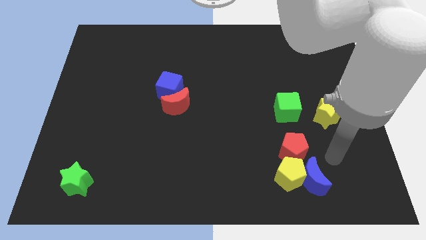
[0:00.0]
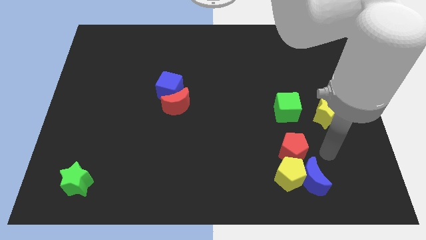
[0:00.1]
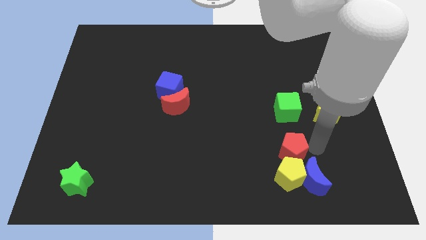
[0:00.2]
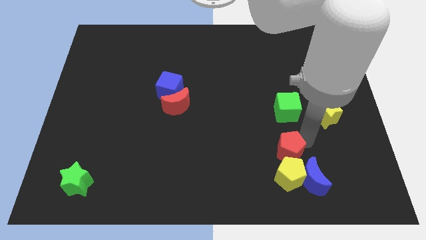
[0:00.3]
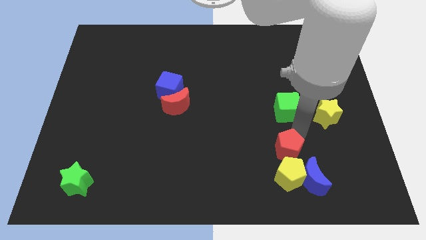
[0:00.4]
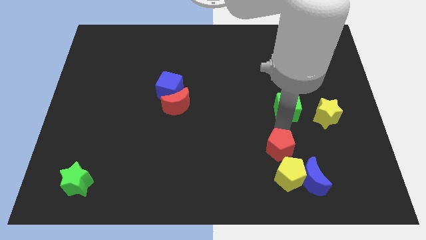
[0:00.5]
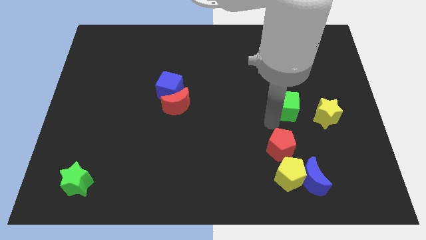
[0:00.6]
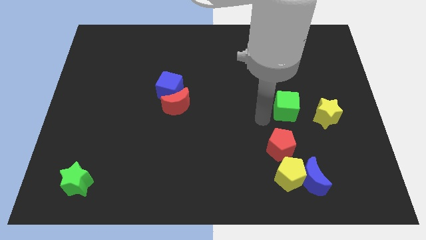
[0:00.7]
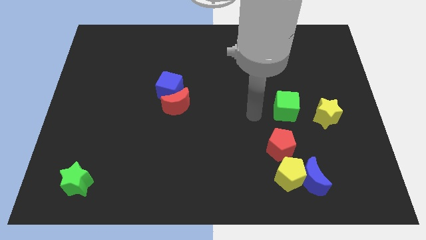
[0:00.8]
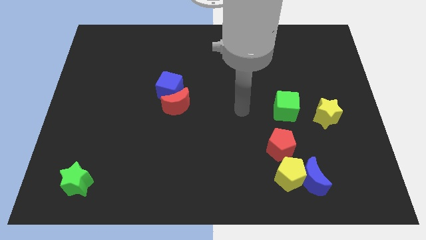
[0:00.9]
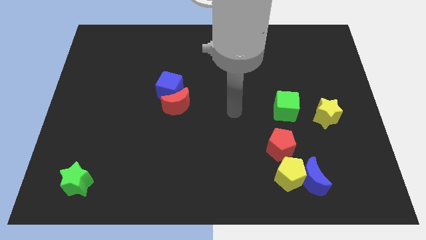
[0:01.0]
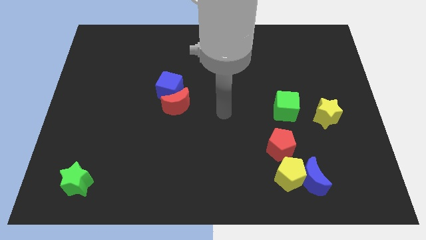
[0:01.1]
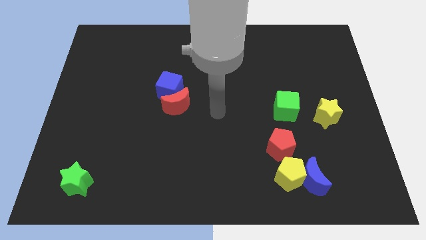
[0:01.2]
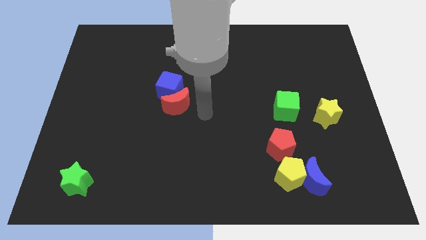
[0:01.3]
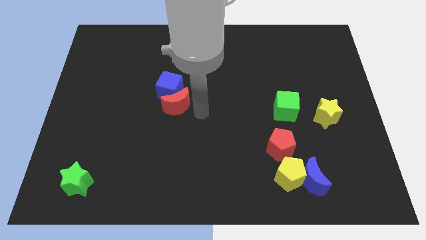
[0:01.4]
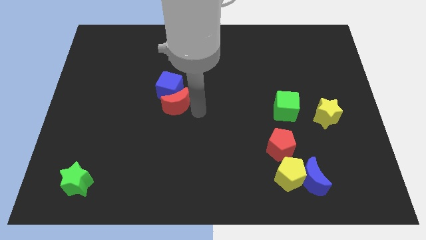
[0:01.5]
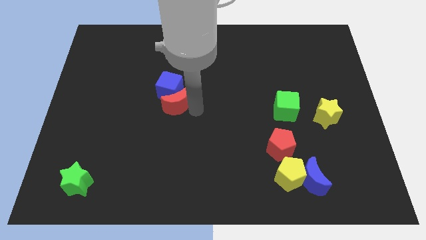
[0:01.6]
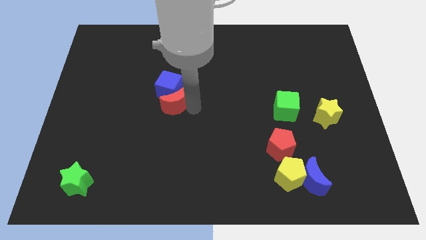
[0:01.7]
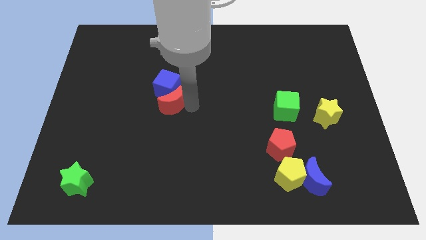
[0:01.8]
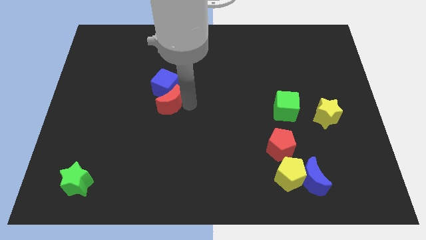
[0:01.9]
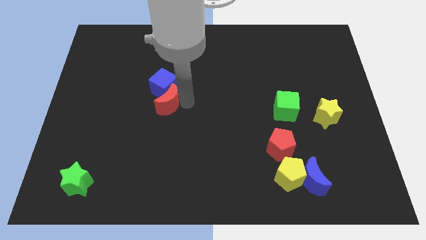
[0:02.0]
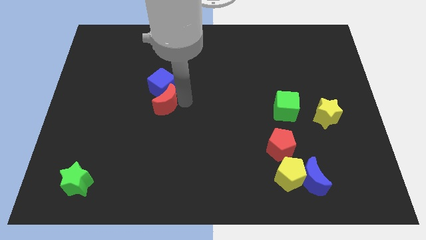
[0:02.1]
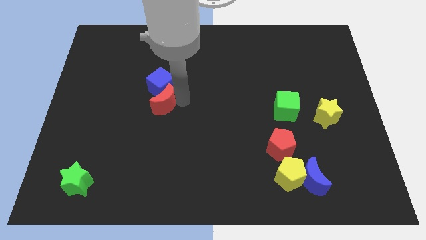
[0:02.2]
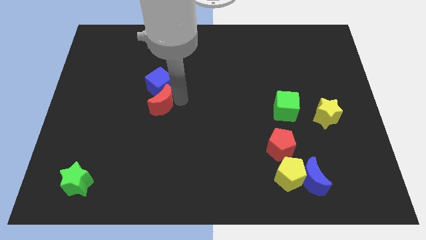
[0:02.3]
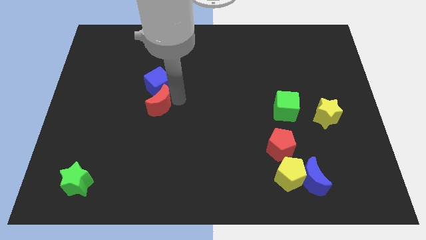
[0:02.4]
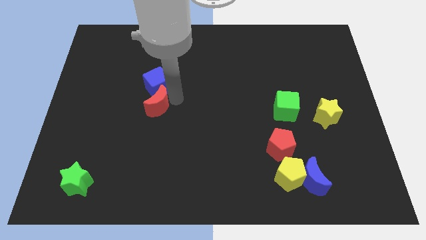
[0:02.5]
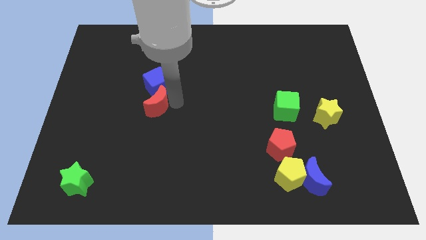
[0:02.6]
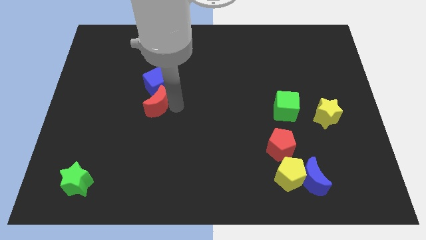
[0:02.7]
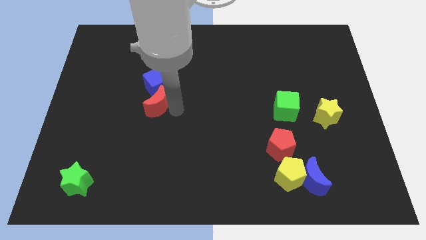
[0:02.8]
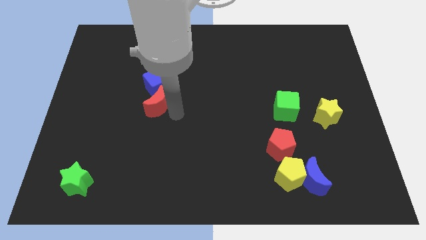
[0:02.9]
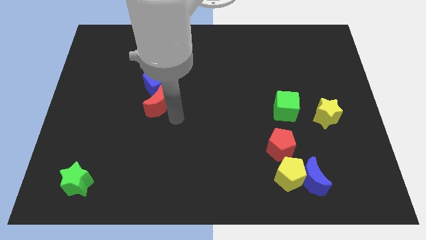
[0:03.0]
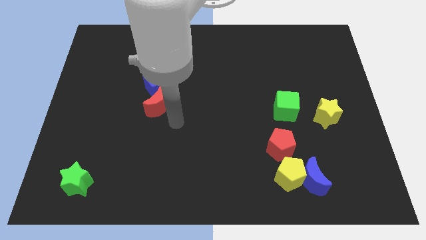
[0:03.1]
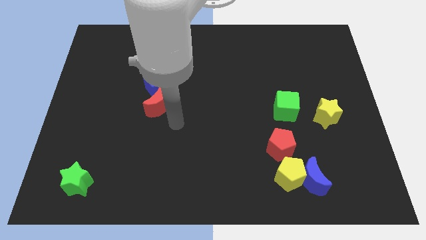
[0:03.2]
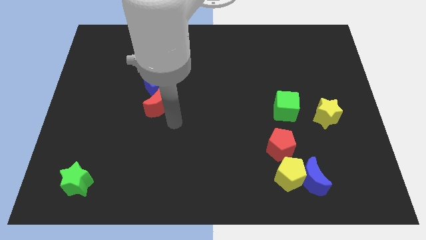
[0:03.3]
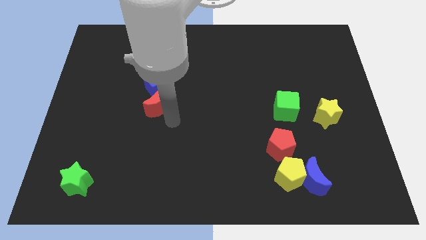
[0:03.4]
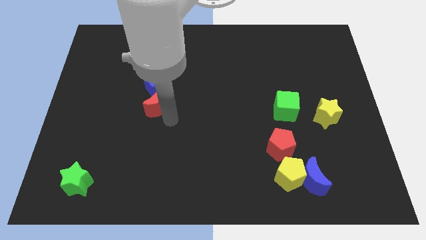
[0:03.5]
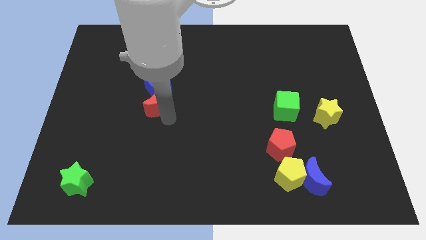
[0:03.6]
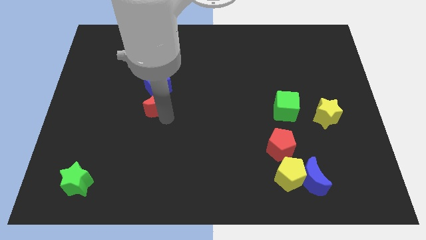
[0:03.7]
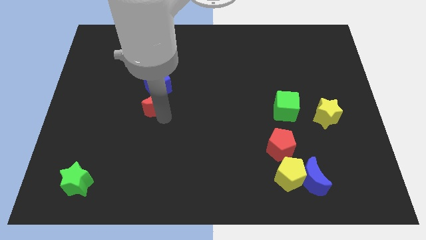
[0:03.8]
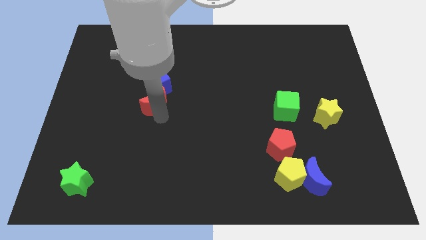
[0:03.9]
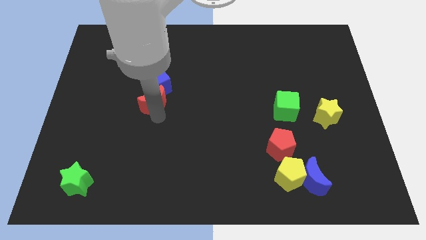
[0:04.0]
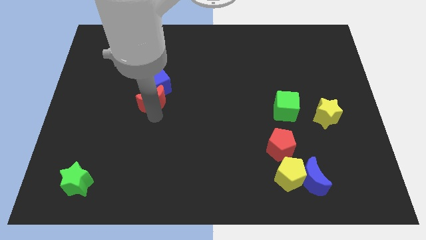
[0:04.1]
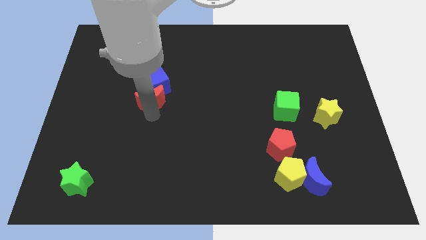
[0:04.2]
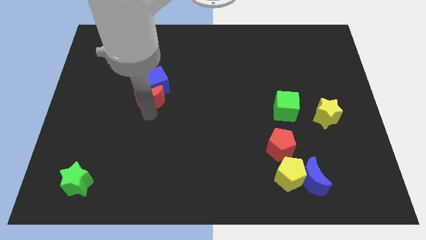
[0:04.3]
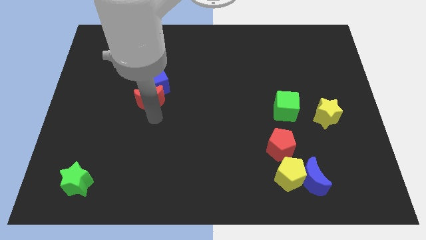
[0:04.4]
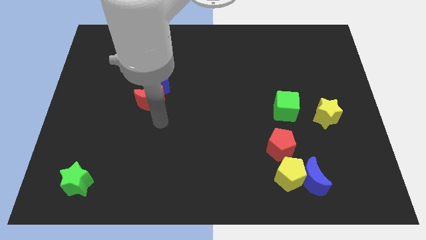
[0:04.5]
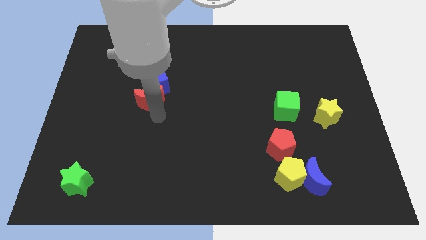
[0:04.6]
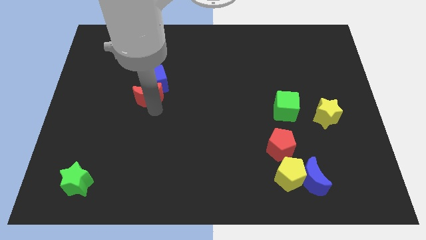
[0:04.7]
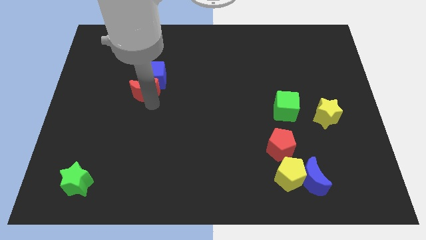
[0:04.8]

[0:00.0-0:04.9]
slide the red moon a little bit up and left diagonally

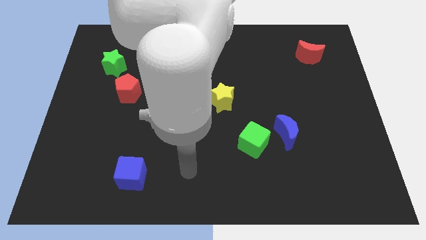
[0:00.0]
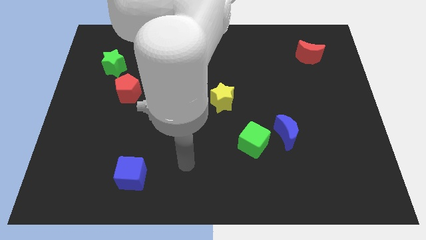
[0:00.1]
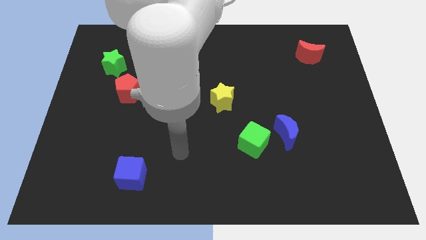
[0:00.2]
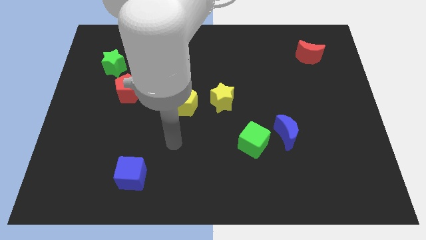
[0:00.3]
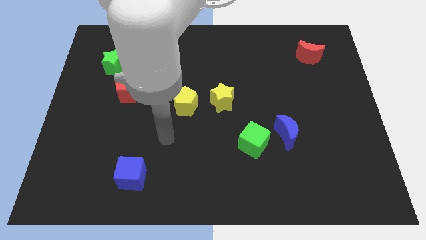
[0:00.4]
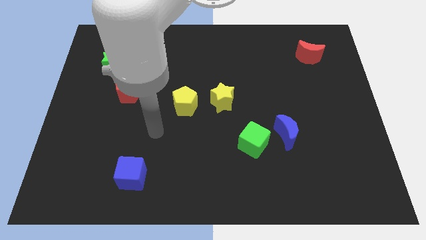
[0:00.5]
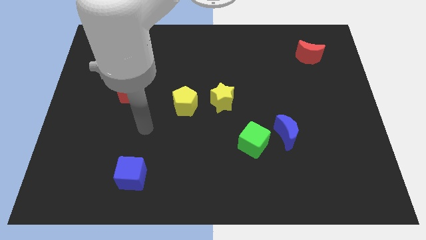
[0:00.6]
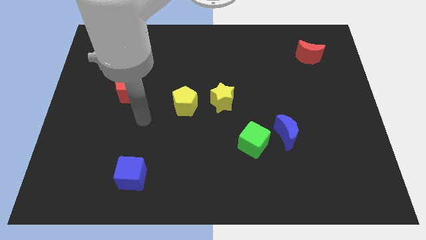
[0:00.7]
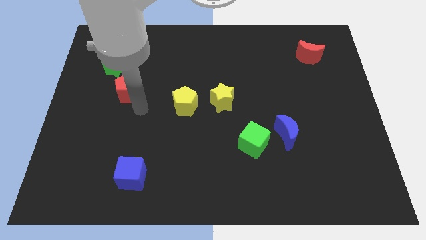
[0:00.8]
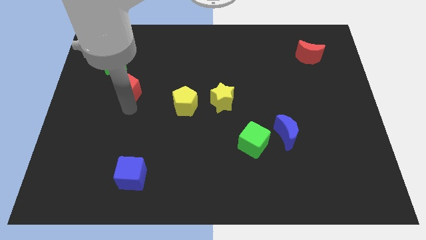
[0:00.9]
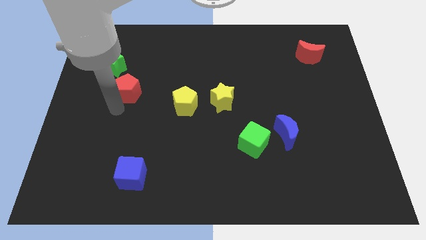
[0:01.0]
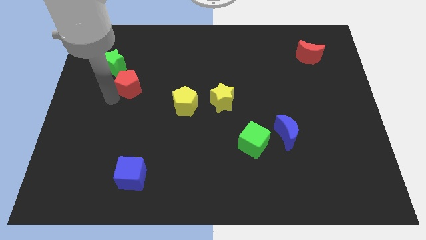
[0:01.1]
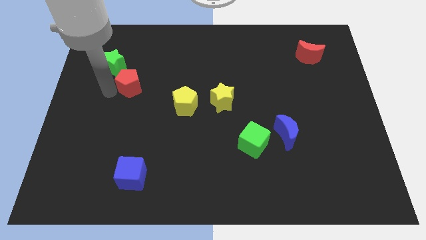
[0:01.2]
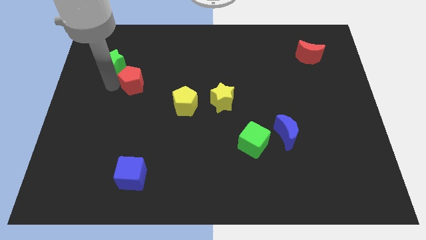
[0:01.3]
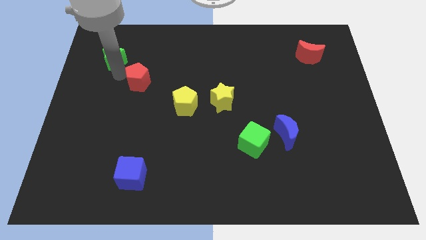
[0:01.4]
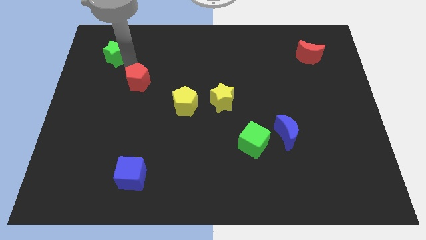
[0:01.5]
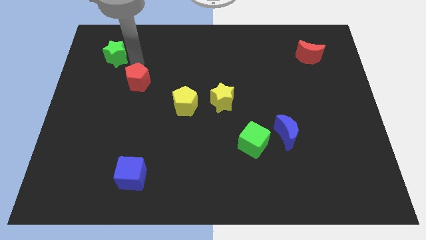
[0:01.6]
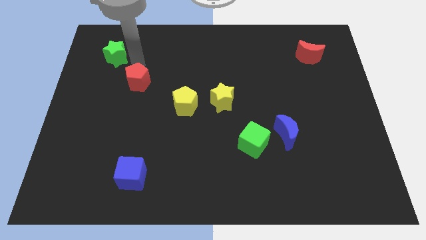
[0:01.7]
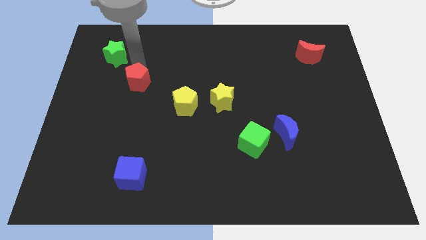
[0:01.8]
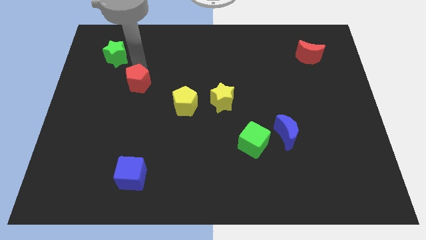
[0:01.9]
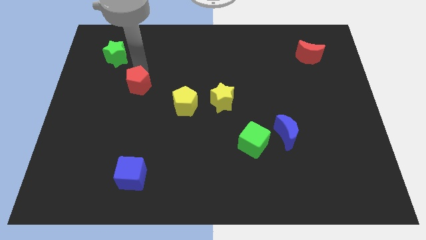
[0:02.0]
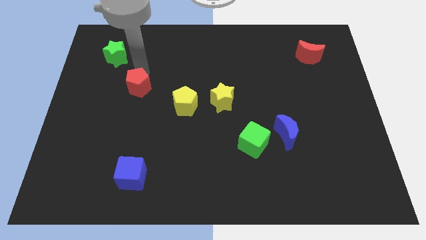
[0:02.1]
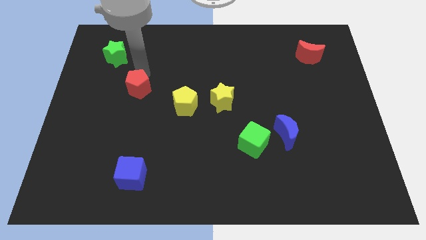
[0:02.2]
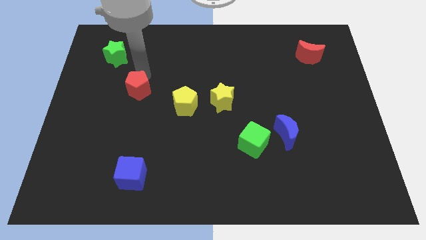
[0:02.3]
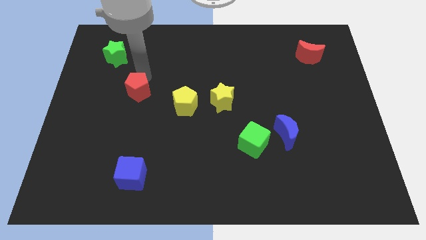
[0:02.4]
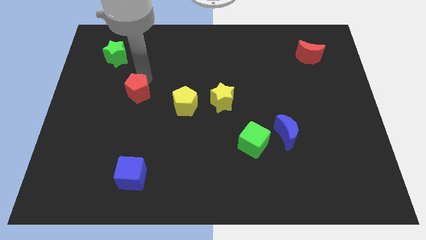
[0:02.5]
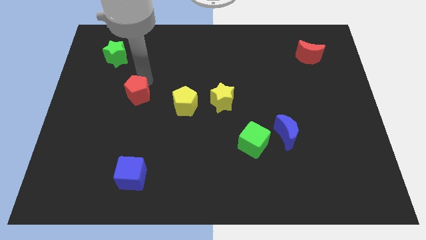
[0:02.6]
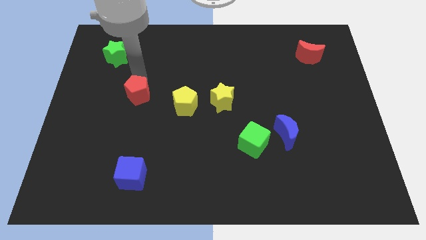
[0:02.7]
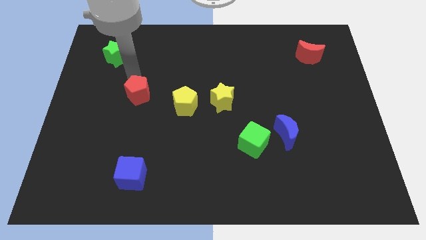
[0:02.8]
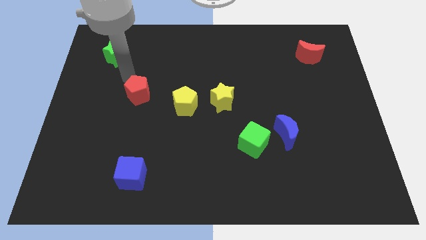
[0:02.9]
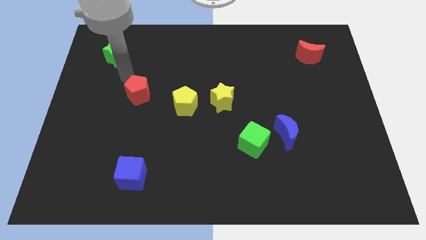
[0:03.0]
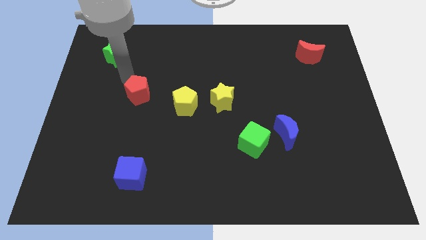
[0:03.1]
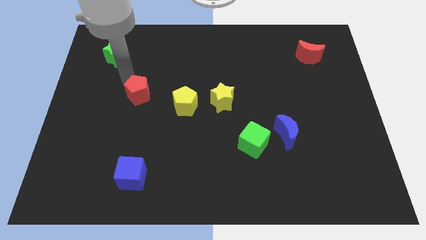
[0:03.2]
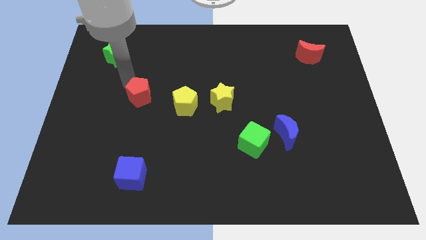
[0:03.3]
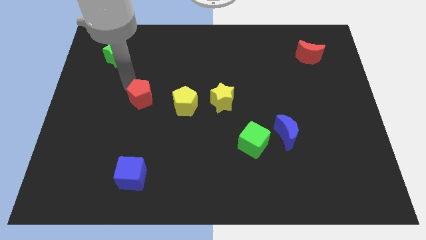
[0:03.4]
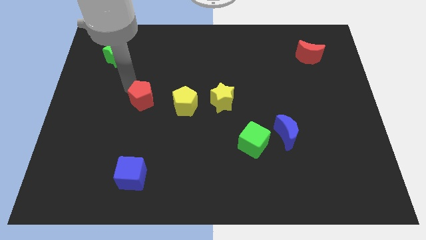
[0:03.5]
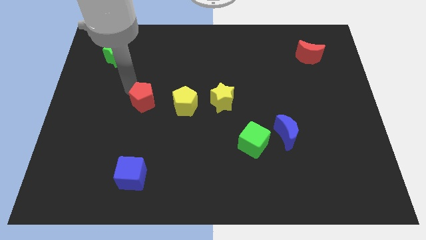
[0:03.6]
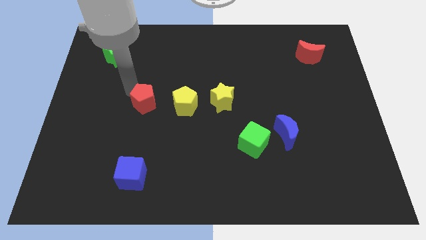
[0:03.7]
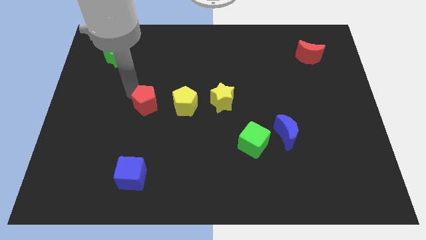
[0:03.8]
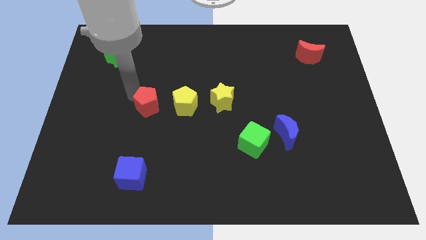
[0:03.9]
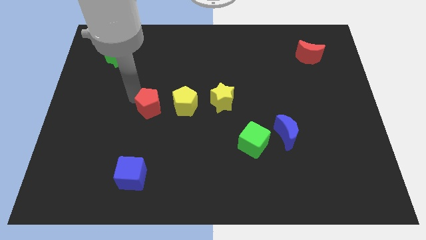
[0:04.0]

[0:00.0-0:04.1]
push the red pentagon slightly down and right diagonally
